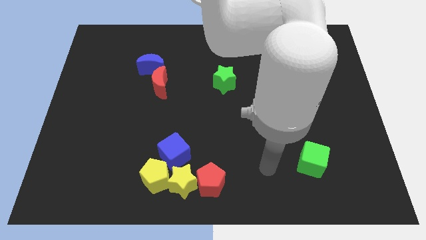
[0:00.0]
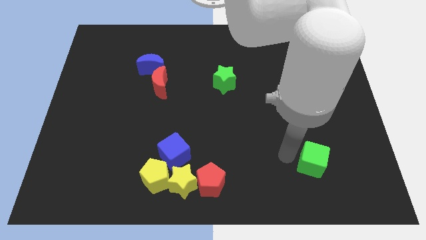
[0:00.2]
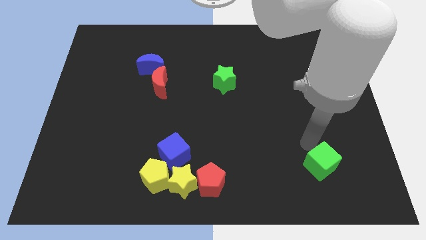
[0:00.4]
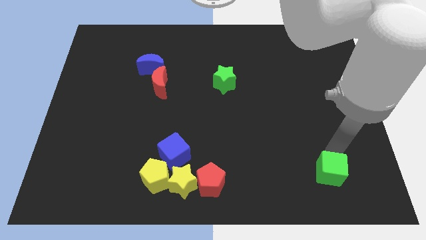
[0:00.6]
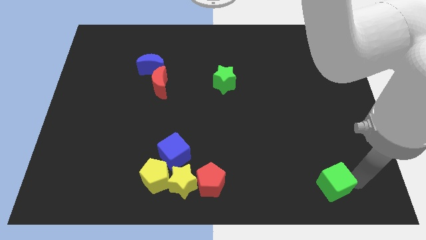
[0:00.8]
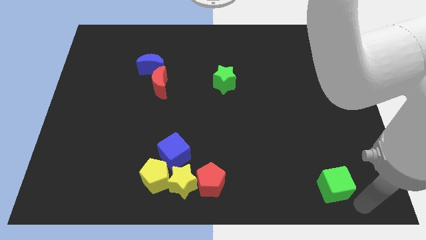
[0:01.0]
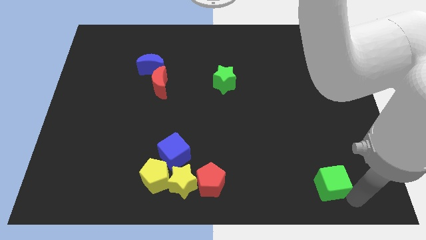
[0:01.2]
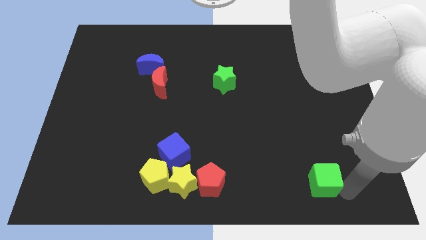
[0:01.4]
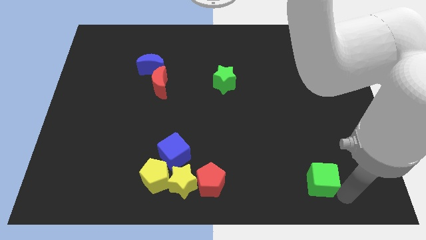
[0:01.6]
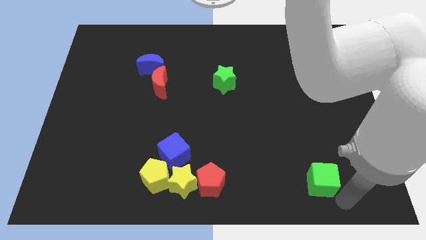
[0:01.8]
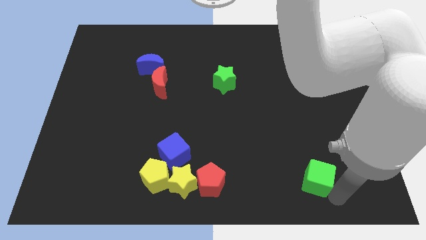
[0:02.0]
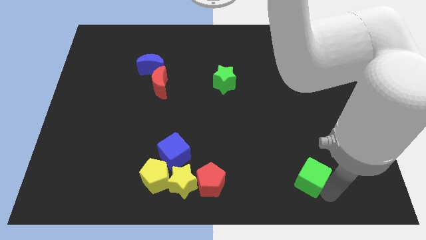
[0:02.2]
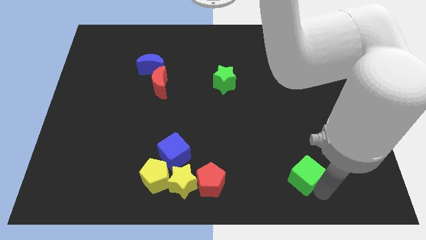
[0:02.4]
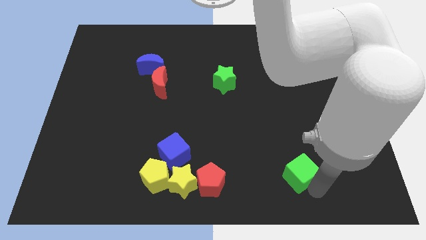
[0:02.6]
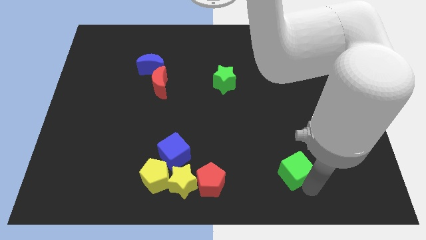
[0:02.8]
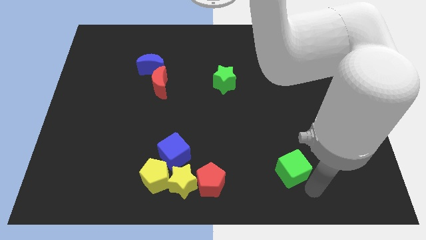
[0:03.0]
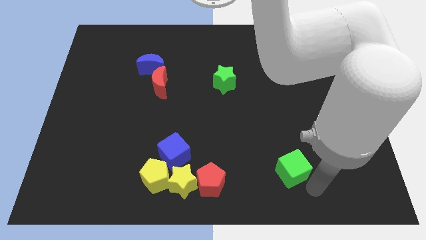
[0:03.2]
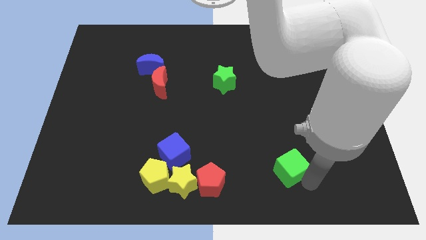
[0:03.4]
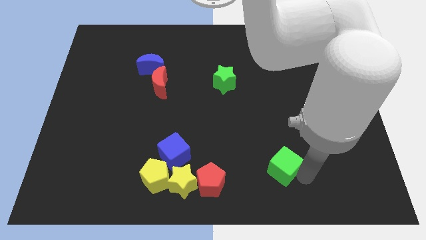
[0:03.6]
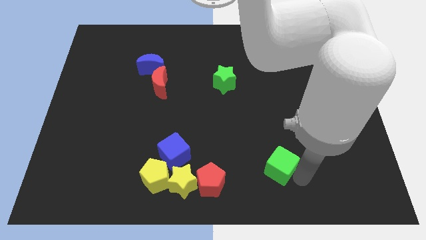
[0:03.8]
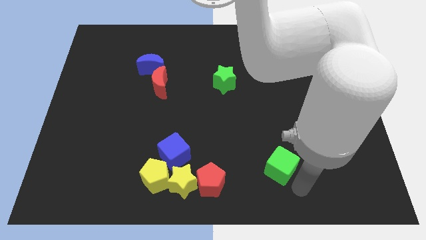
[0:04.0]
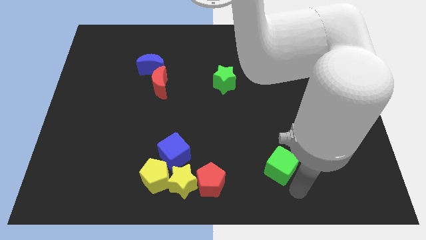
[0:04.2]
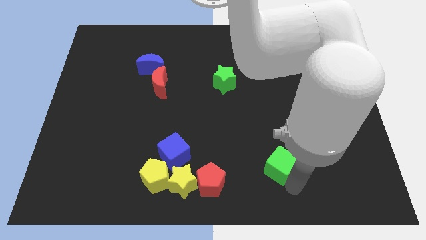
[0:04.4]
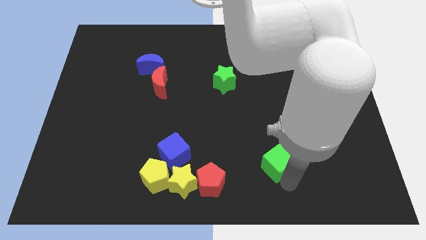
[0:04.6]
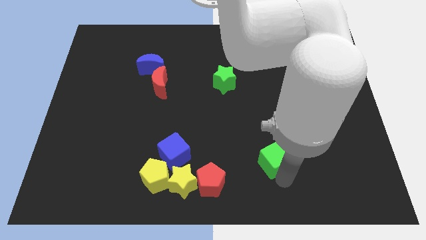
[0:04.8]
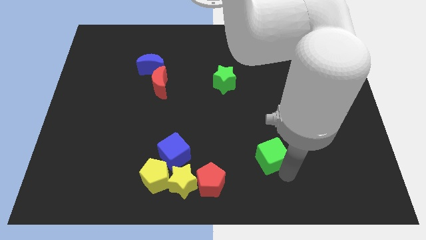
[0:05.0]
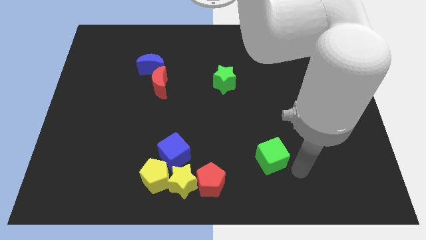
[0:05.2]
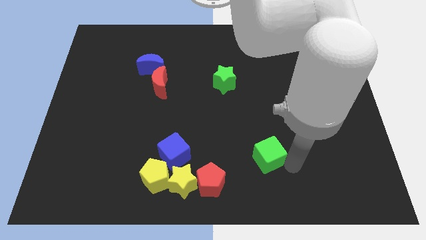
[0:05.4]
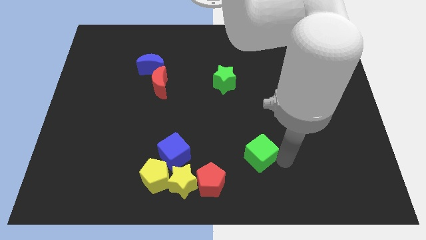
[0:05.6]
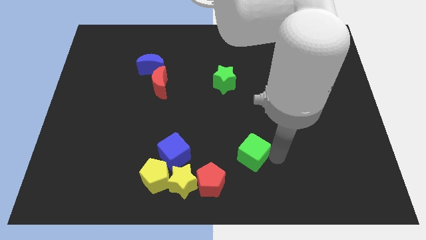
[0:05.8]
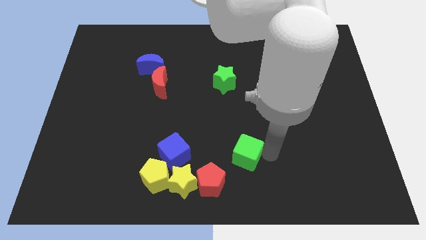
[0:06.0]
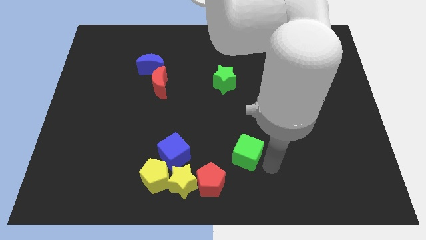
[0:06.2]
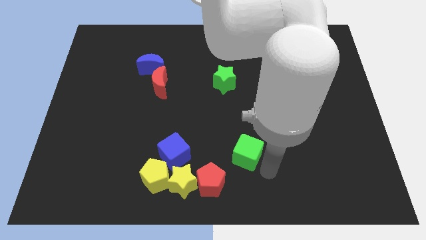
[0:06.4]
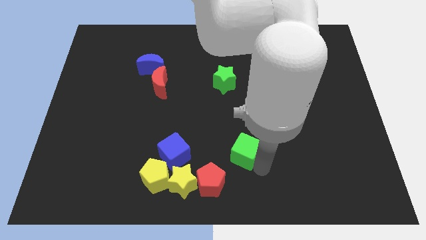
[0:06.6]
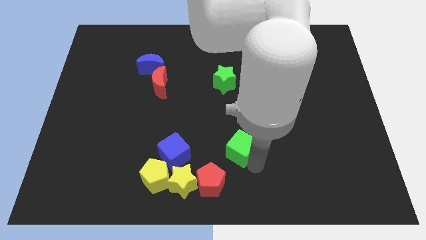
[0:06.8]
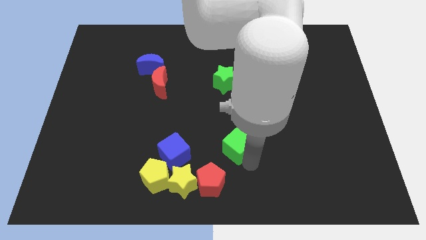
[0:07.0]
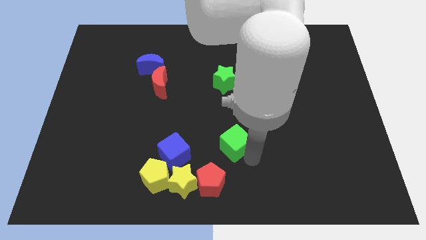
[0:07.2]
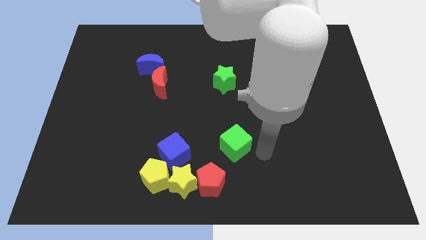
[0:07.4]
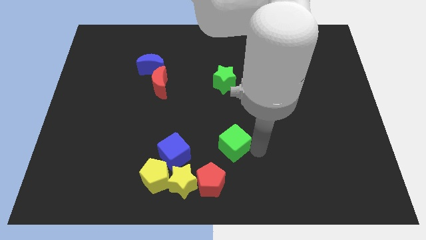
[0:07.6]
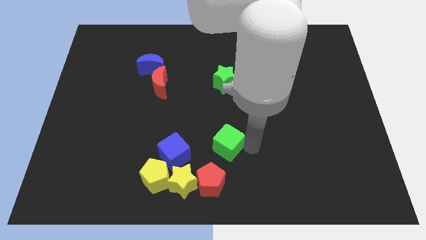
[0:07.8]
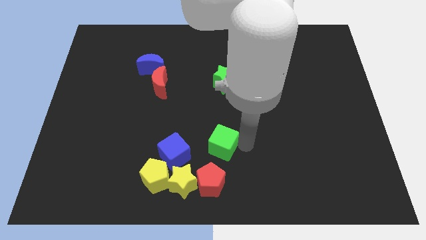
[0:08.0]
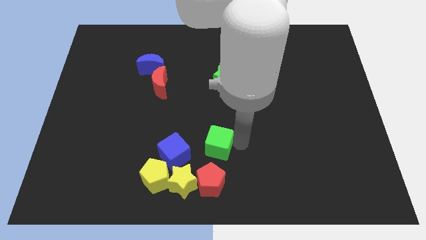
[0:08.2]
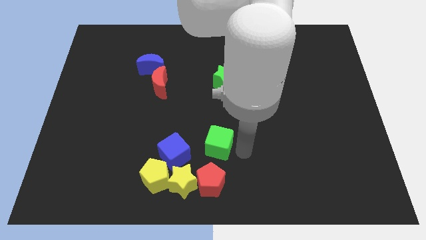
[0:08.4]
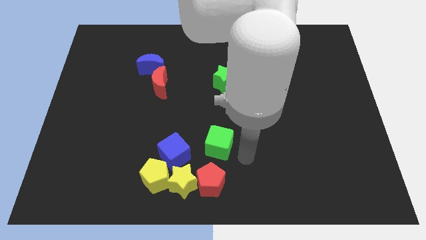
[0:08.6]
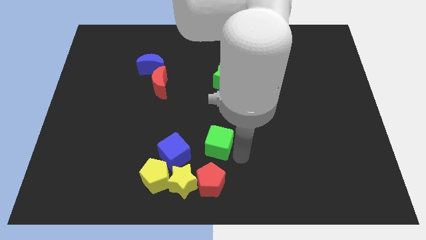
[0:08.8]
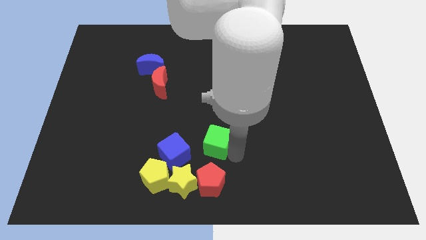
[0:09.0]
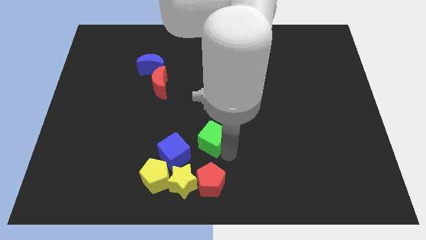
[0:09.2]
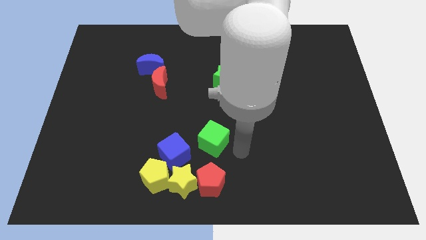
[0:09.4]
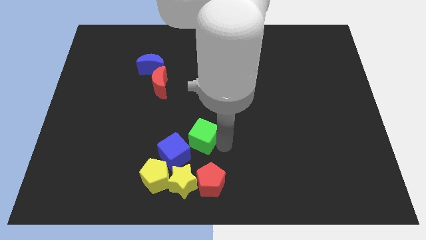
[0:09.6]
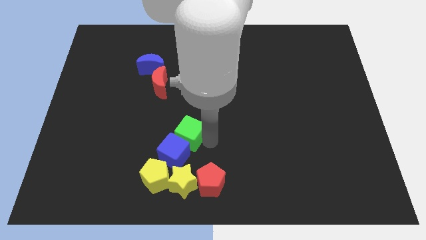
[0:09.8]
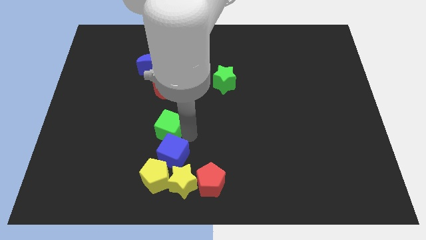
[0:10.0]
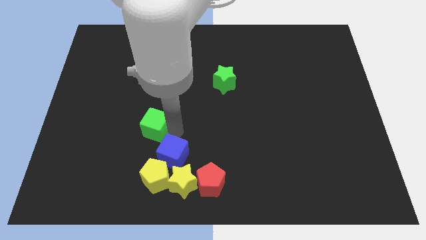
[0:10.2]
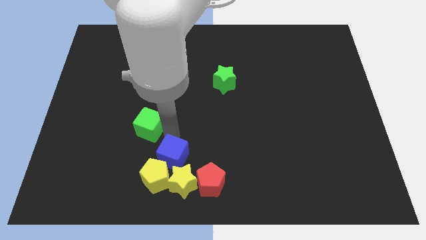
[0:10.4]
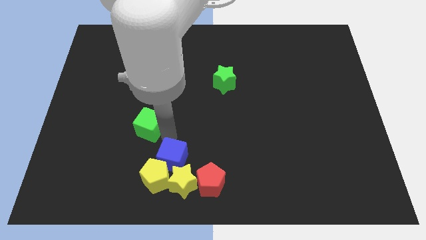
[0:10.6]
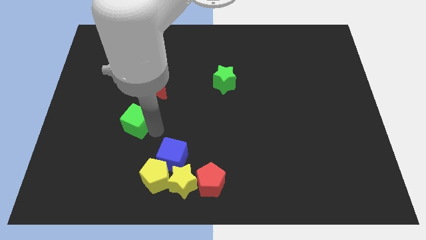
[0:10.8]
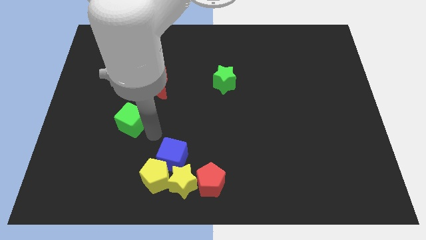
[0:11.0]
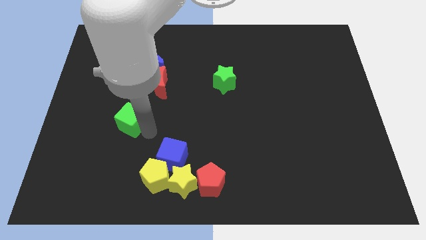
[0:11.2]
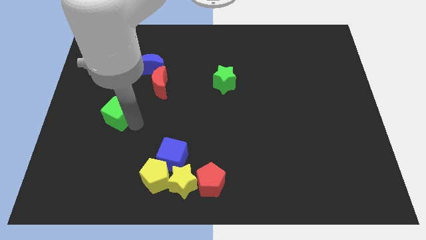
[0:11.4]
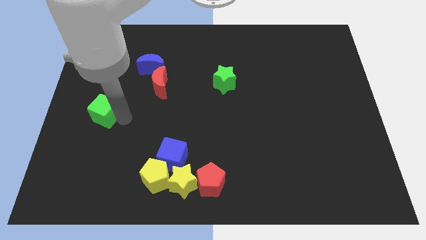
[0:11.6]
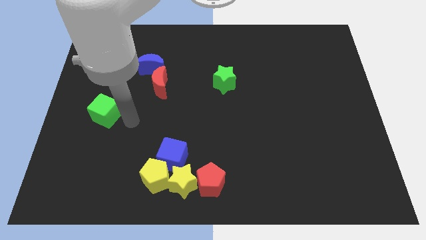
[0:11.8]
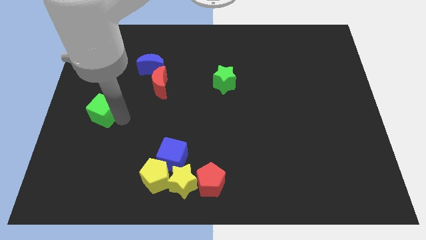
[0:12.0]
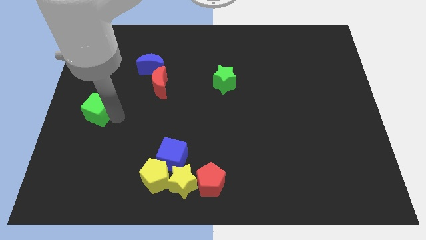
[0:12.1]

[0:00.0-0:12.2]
push the green cube to the left side
